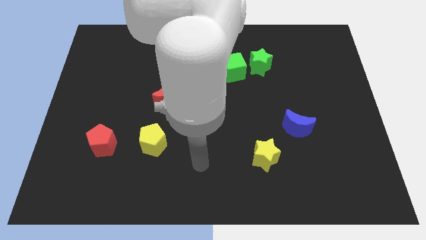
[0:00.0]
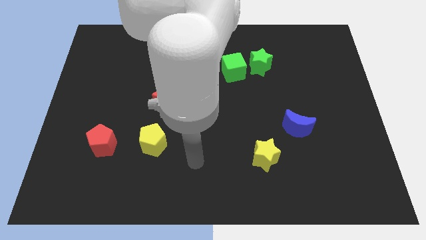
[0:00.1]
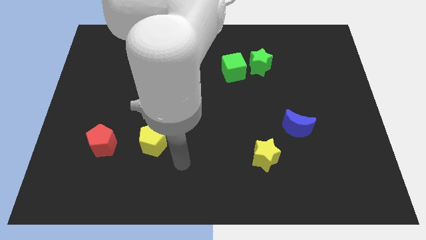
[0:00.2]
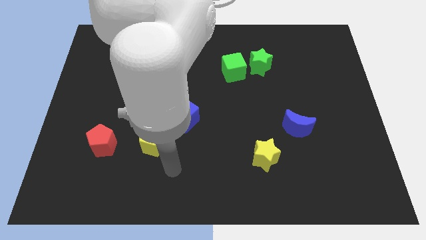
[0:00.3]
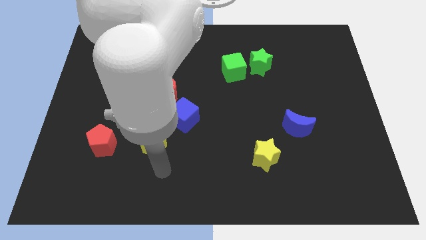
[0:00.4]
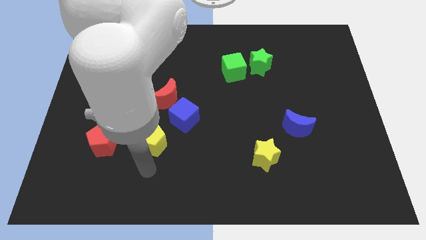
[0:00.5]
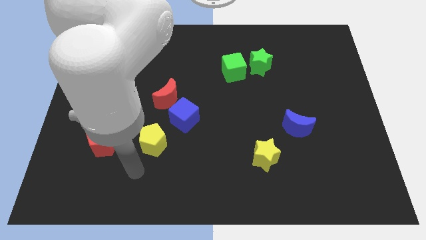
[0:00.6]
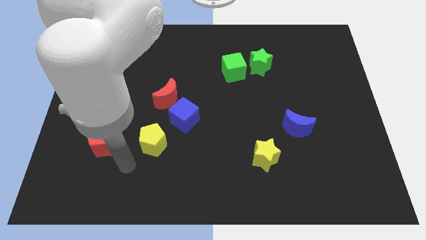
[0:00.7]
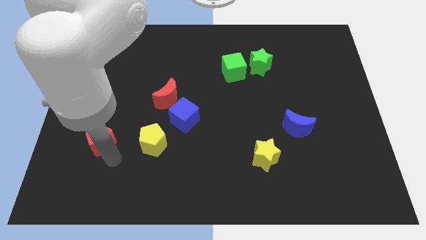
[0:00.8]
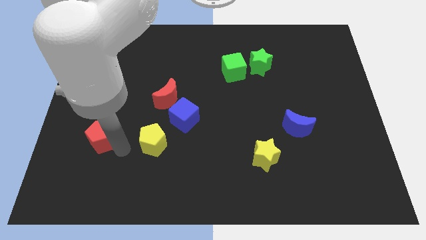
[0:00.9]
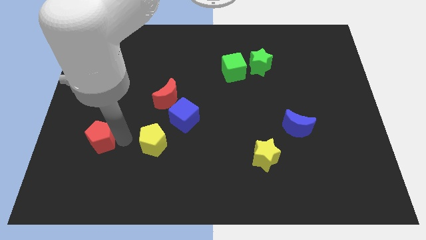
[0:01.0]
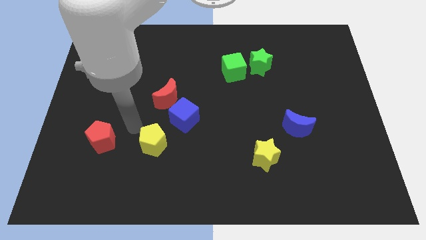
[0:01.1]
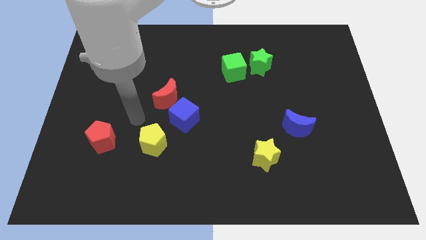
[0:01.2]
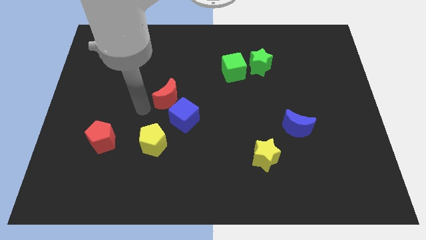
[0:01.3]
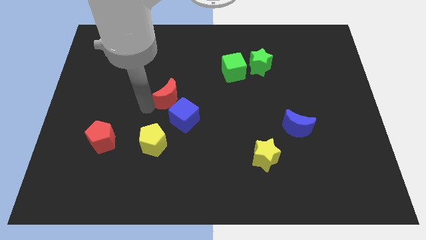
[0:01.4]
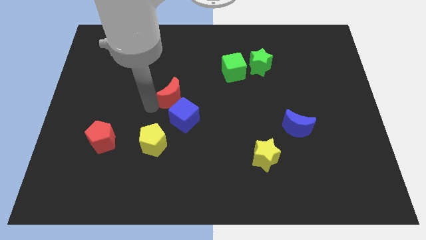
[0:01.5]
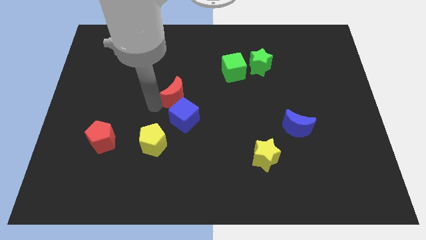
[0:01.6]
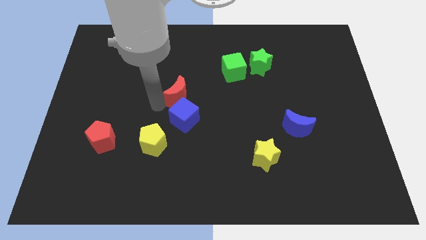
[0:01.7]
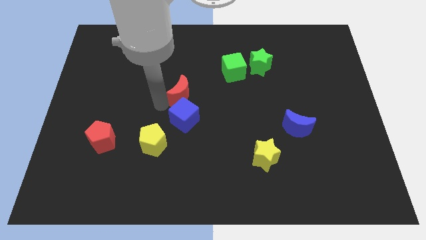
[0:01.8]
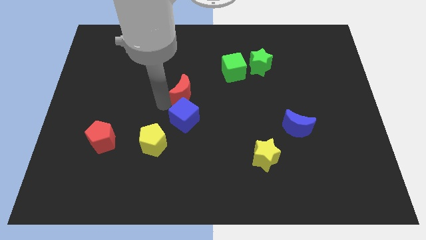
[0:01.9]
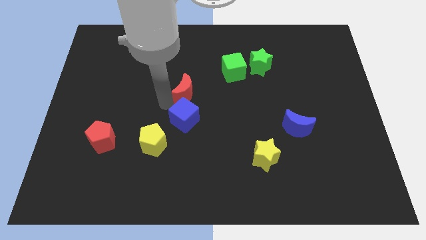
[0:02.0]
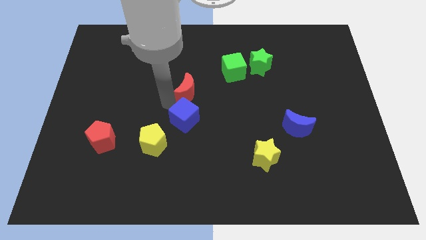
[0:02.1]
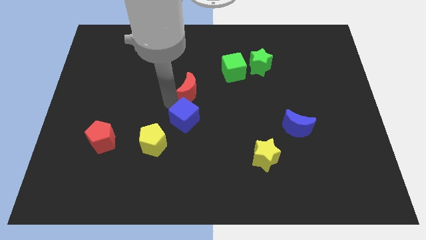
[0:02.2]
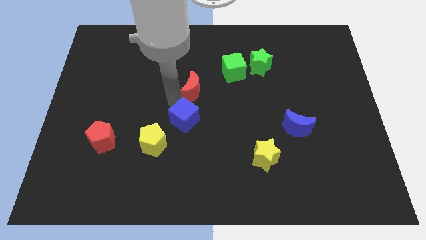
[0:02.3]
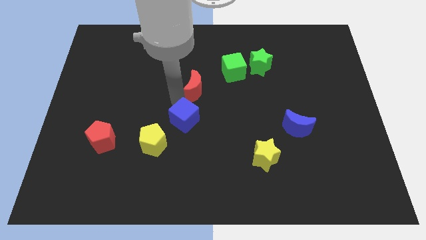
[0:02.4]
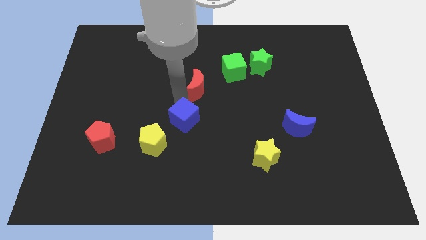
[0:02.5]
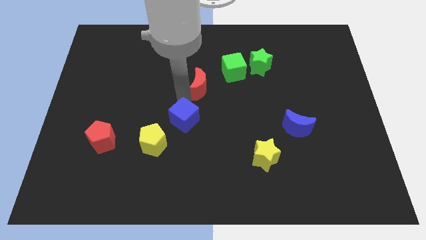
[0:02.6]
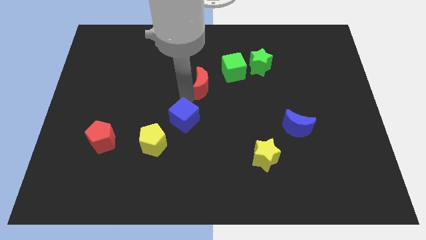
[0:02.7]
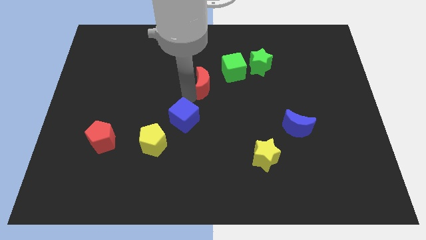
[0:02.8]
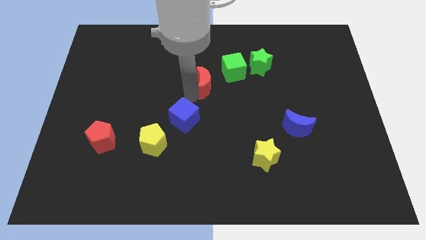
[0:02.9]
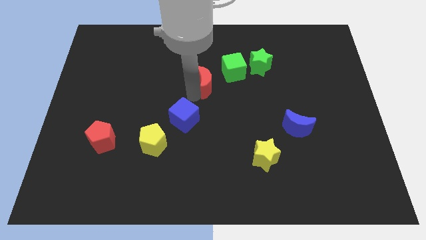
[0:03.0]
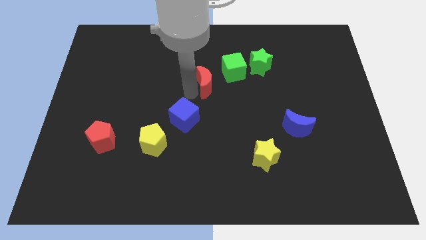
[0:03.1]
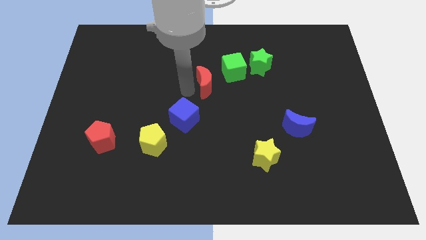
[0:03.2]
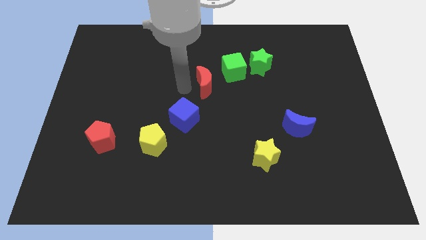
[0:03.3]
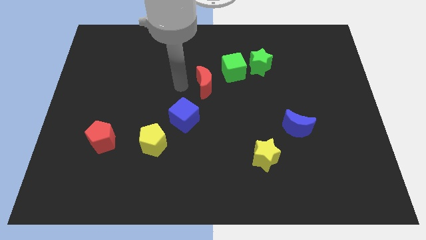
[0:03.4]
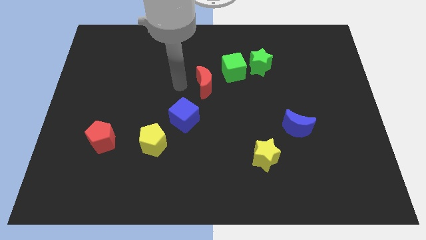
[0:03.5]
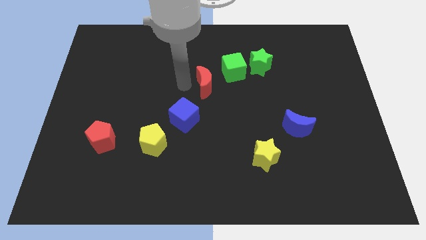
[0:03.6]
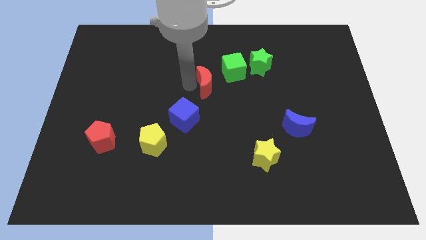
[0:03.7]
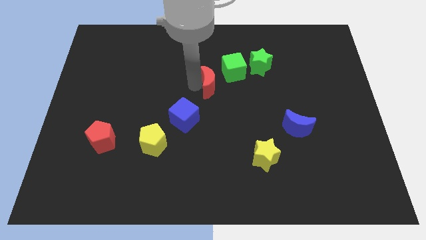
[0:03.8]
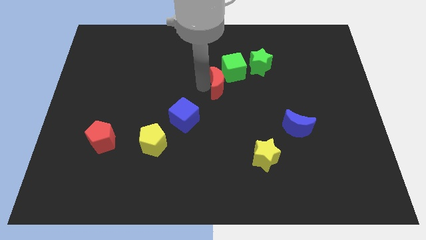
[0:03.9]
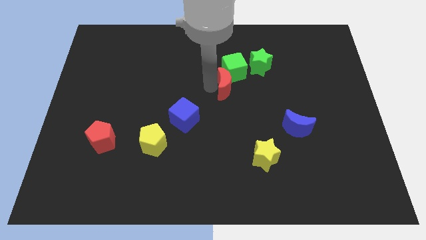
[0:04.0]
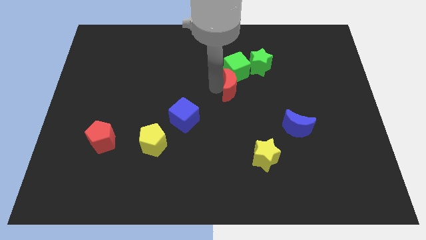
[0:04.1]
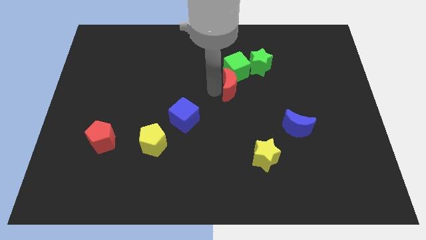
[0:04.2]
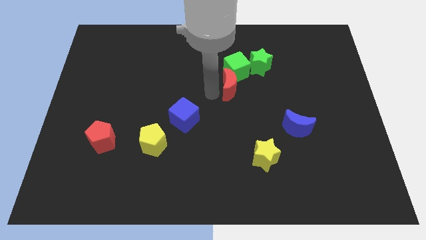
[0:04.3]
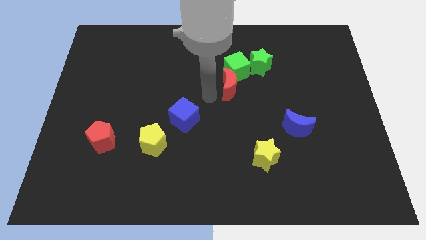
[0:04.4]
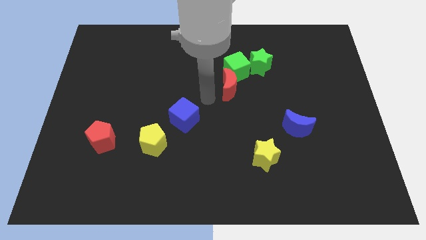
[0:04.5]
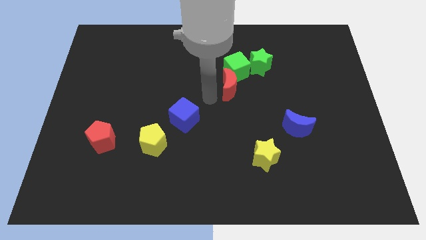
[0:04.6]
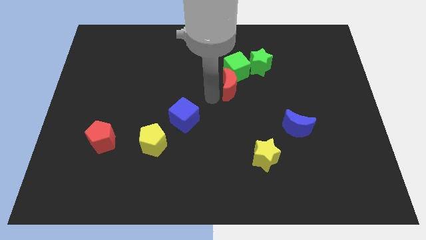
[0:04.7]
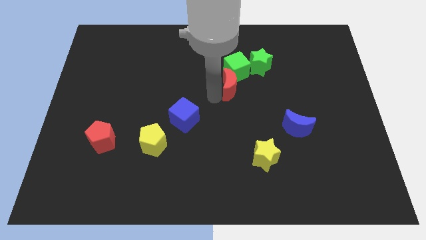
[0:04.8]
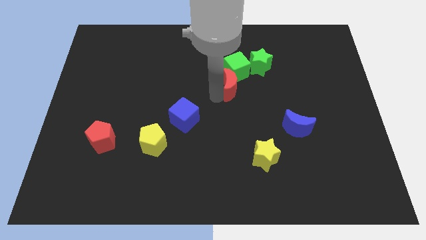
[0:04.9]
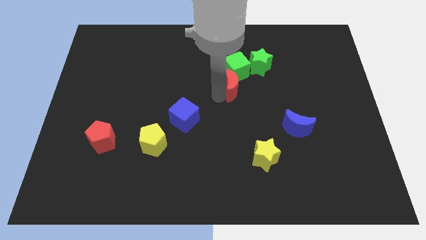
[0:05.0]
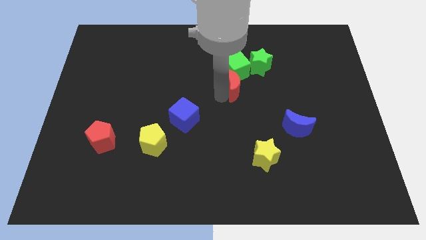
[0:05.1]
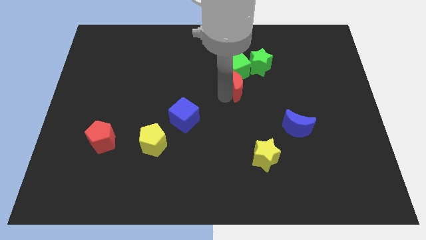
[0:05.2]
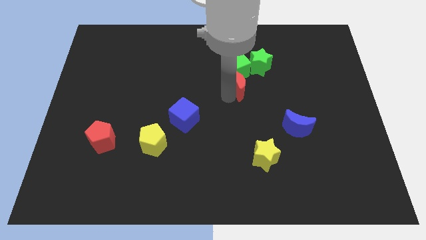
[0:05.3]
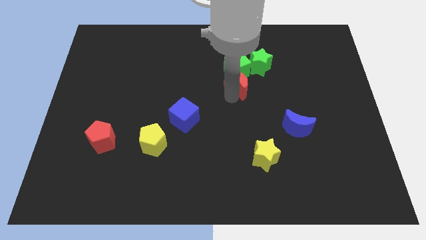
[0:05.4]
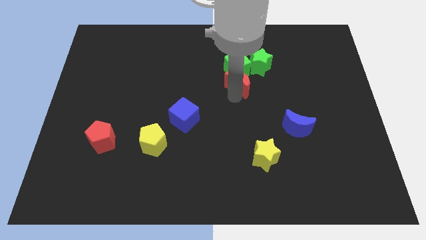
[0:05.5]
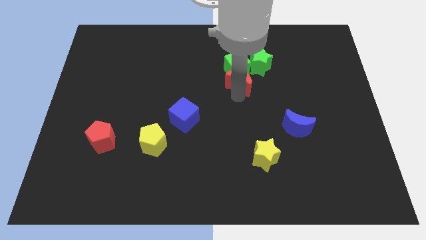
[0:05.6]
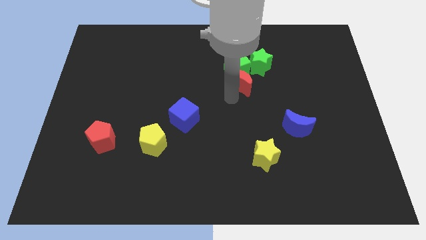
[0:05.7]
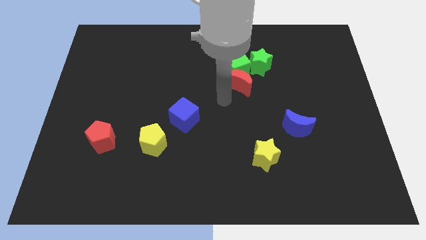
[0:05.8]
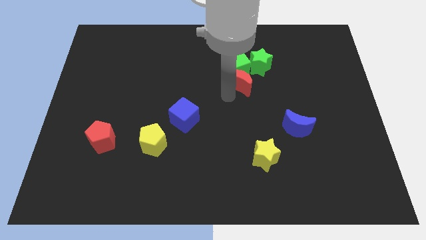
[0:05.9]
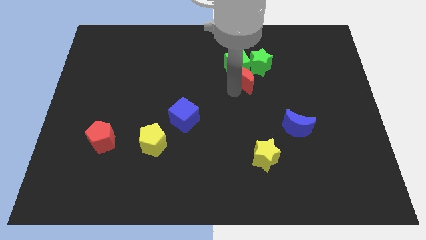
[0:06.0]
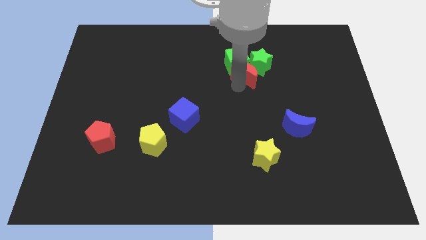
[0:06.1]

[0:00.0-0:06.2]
put the red moon close to the green star

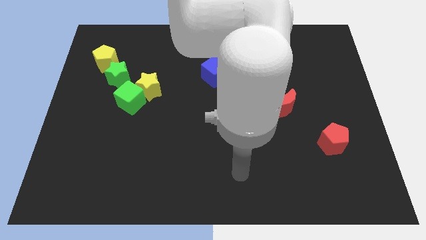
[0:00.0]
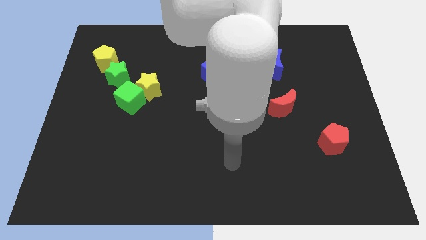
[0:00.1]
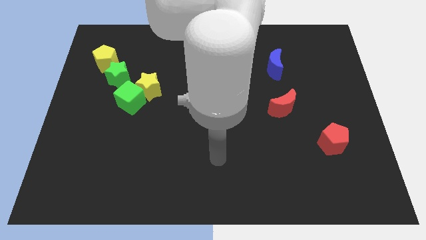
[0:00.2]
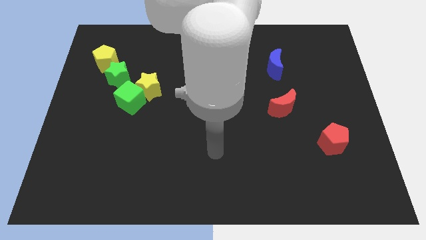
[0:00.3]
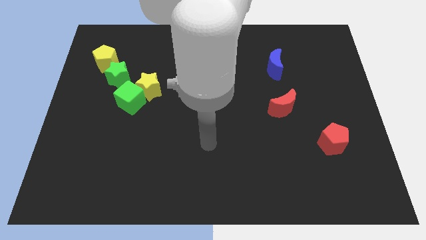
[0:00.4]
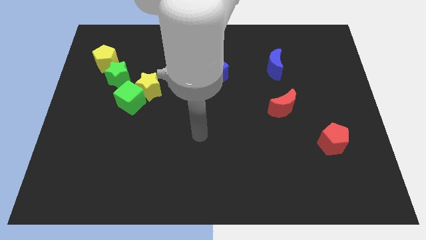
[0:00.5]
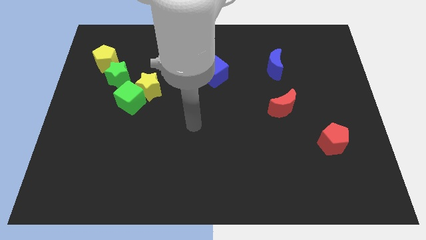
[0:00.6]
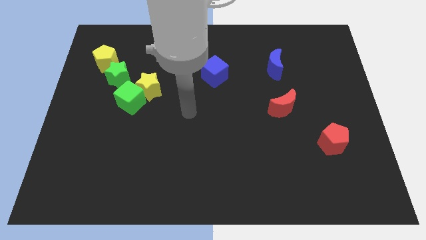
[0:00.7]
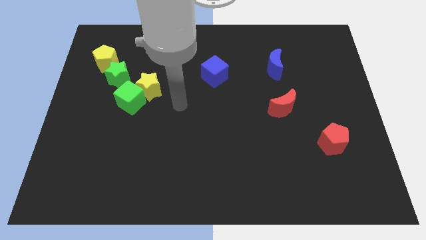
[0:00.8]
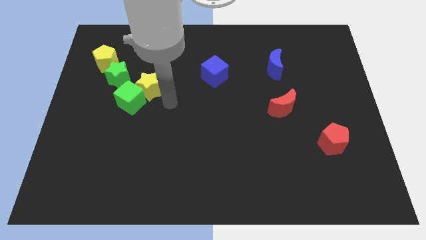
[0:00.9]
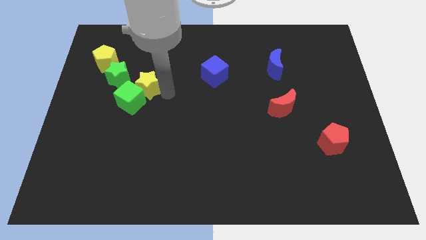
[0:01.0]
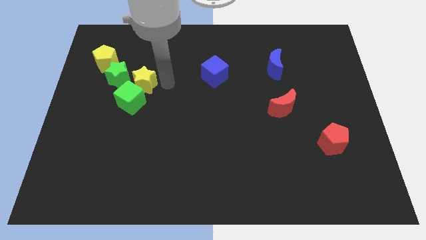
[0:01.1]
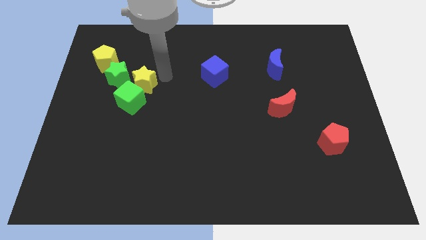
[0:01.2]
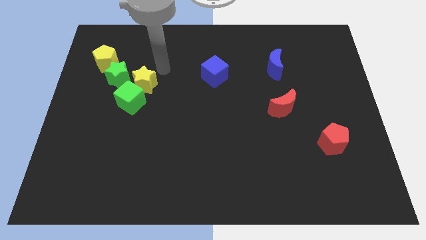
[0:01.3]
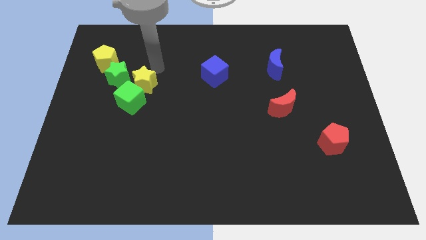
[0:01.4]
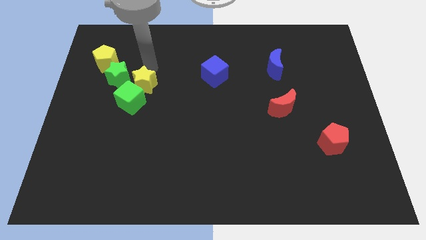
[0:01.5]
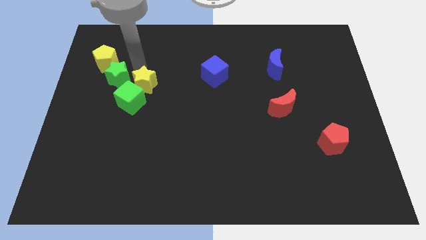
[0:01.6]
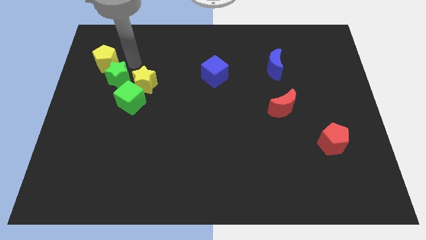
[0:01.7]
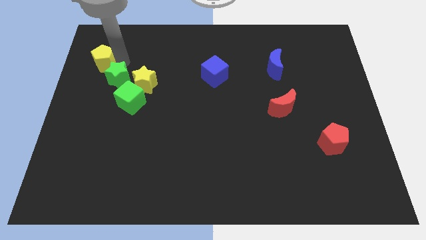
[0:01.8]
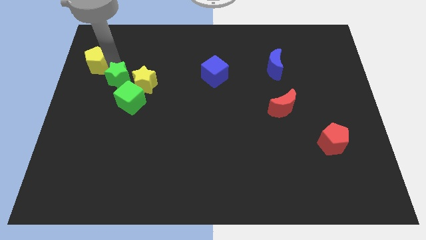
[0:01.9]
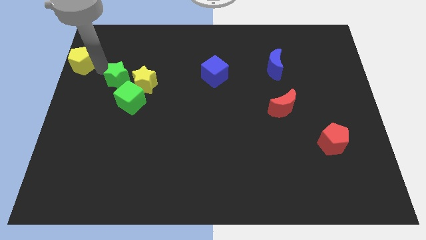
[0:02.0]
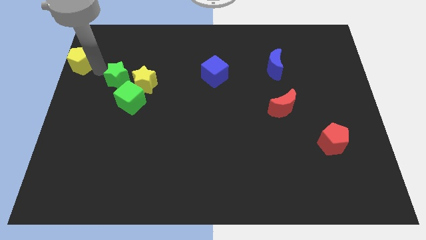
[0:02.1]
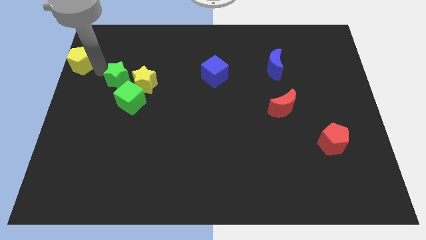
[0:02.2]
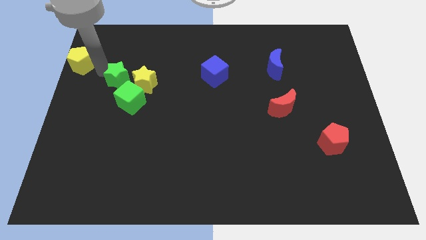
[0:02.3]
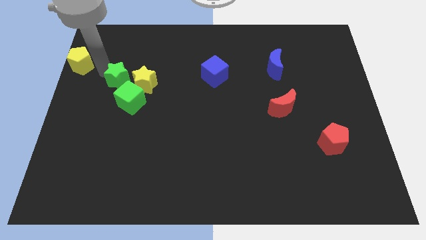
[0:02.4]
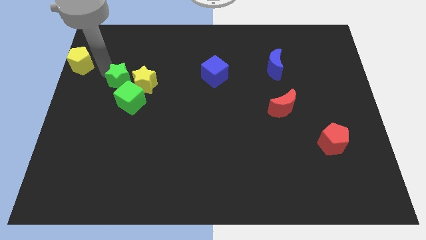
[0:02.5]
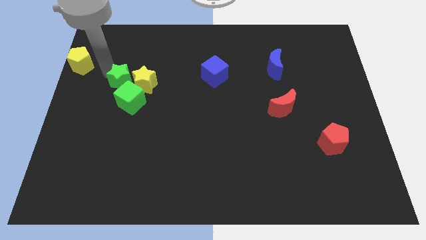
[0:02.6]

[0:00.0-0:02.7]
move the green star next to the yellow star
